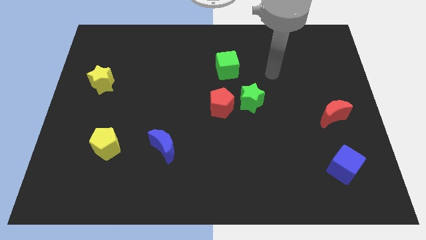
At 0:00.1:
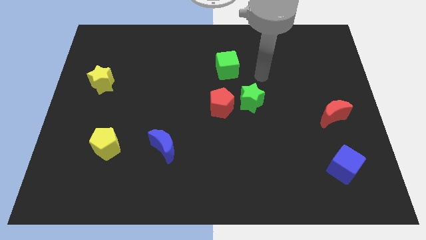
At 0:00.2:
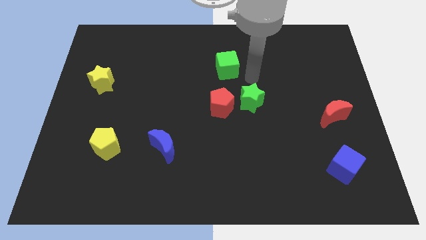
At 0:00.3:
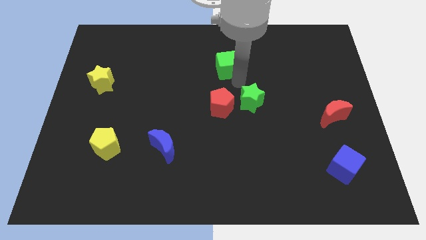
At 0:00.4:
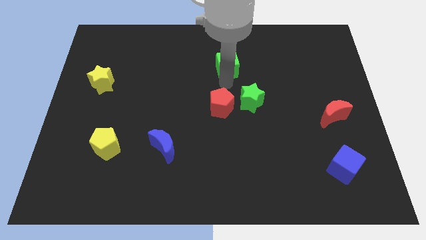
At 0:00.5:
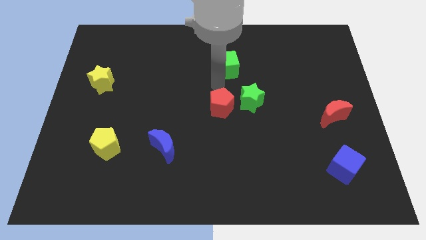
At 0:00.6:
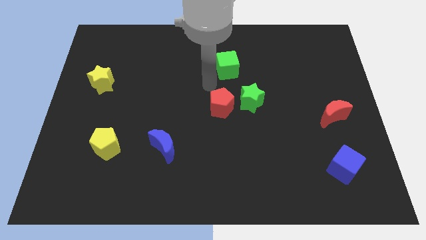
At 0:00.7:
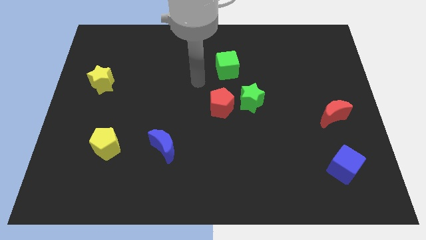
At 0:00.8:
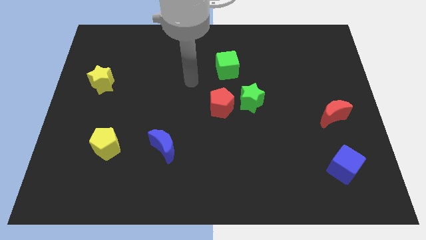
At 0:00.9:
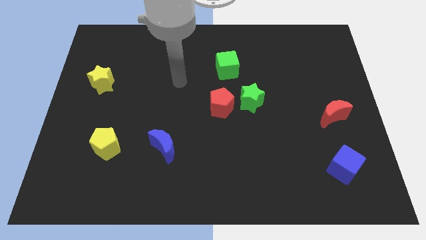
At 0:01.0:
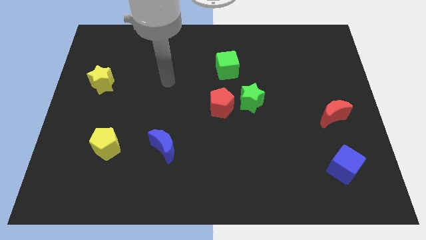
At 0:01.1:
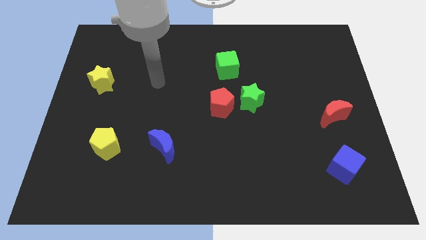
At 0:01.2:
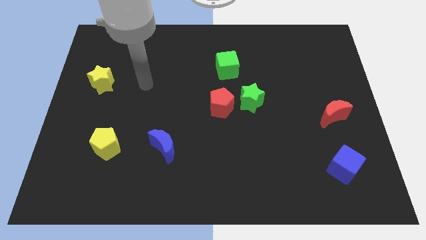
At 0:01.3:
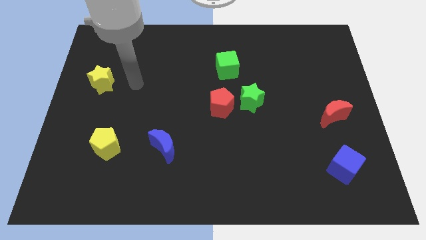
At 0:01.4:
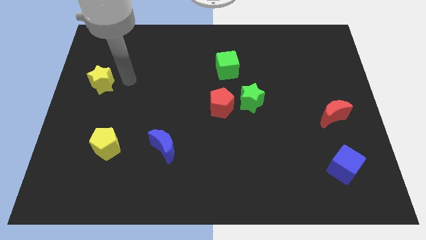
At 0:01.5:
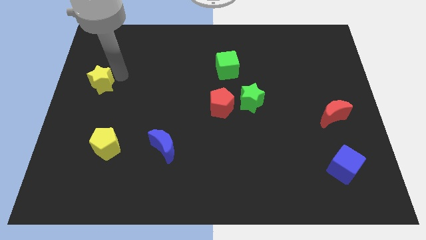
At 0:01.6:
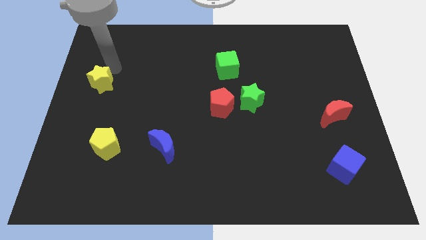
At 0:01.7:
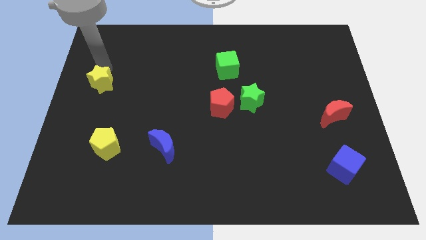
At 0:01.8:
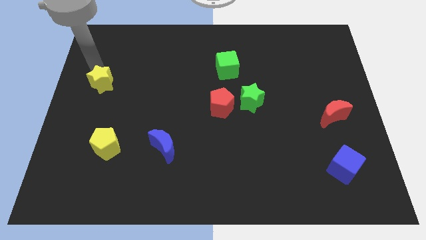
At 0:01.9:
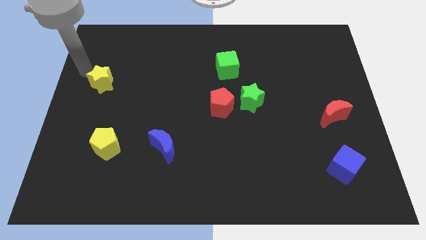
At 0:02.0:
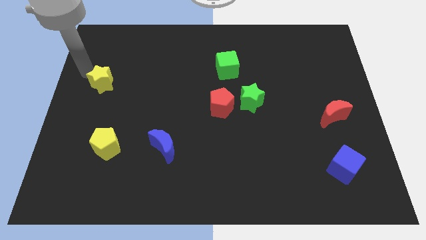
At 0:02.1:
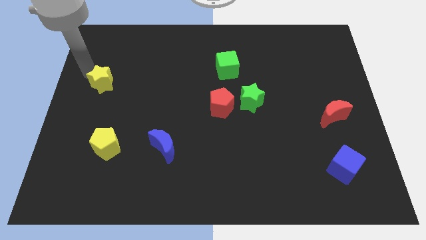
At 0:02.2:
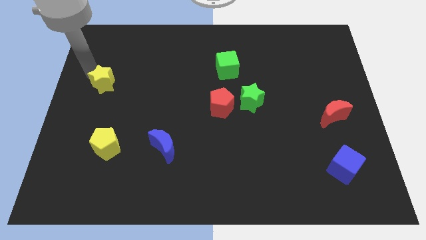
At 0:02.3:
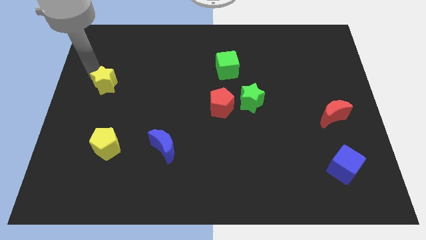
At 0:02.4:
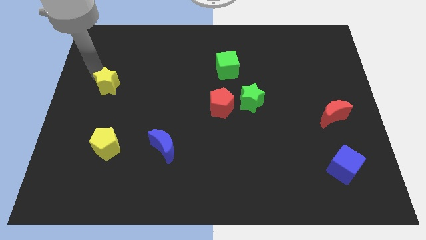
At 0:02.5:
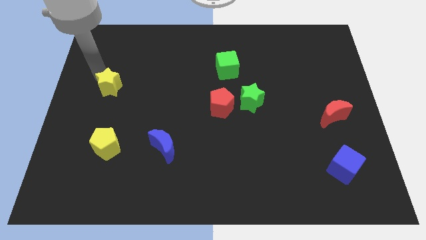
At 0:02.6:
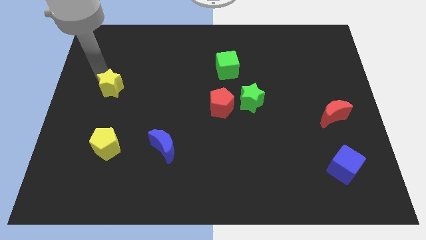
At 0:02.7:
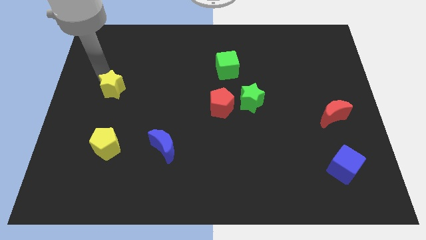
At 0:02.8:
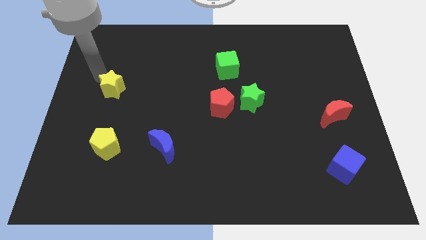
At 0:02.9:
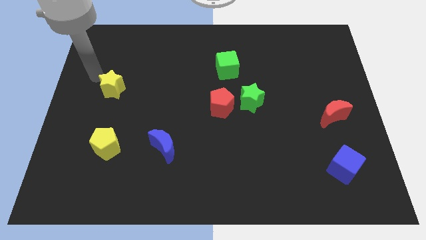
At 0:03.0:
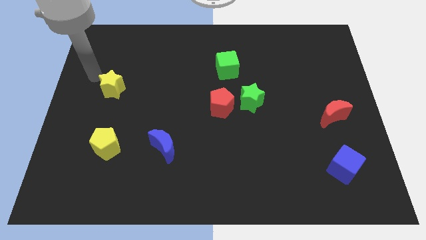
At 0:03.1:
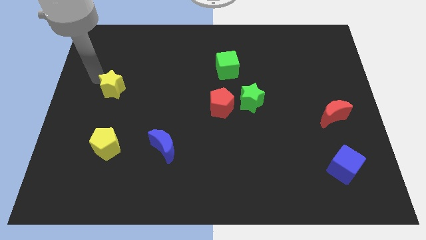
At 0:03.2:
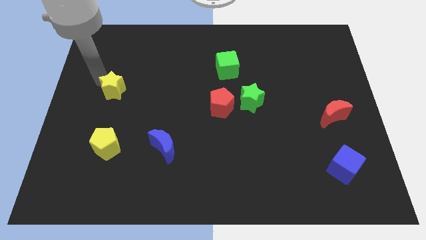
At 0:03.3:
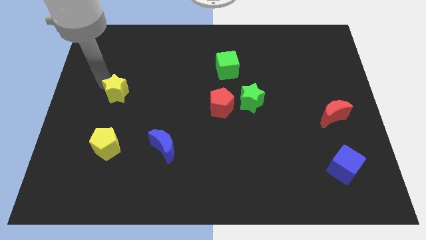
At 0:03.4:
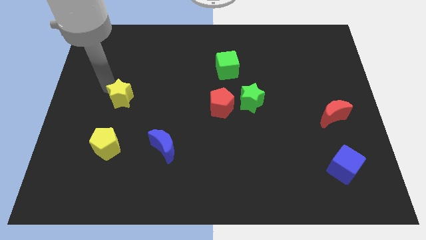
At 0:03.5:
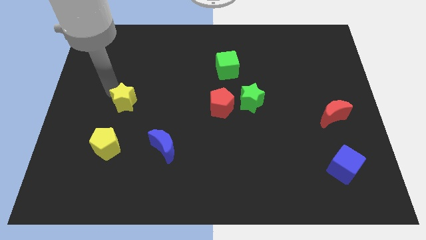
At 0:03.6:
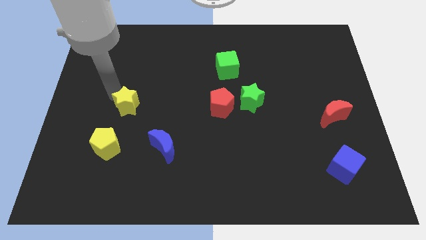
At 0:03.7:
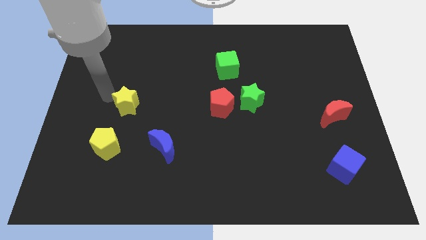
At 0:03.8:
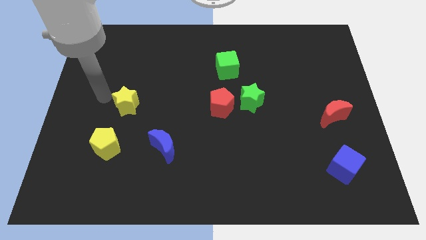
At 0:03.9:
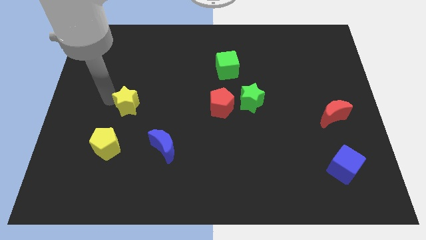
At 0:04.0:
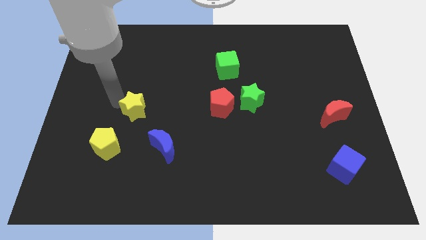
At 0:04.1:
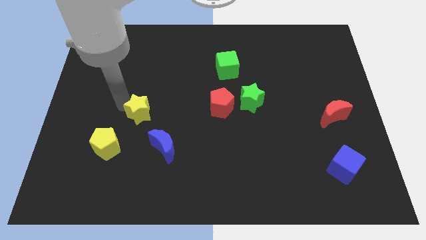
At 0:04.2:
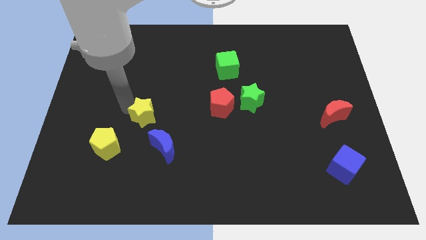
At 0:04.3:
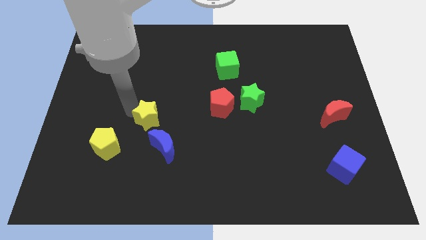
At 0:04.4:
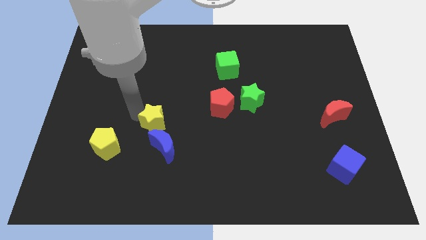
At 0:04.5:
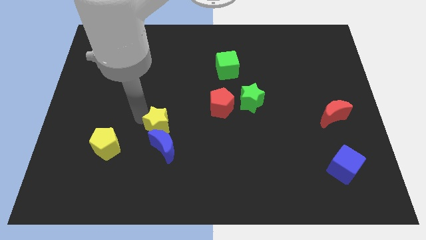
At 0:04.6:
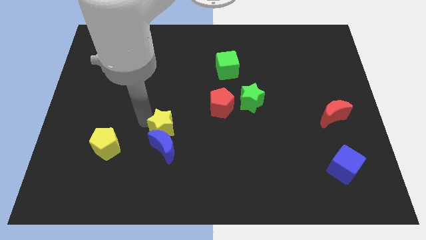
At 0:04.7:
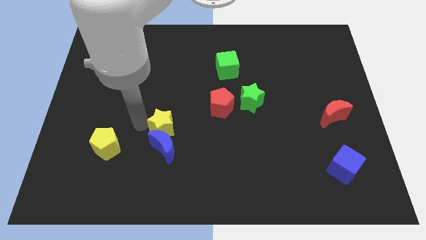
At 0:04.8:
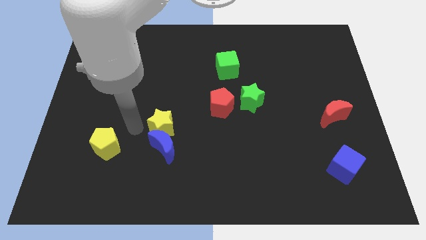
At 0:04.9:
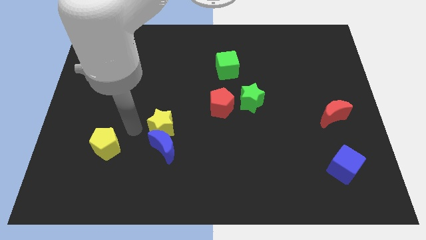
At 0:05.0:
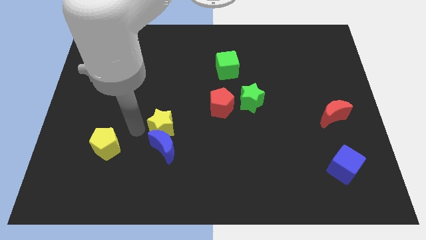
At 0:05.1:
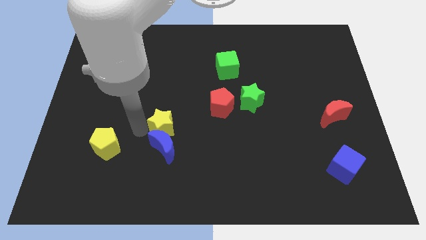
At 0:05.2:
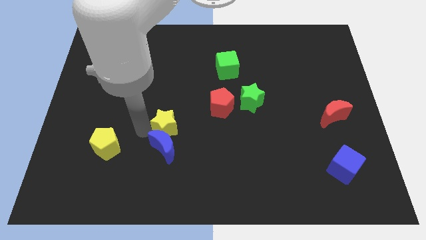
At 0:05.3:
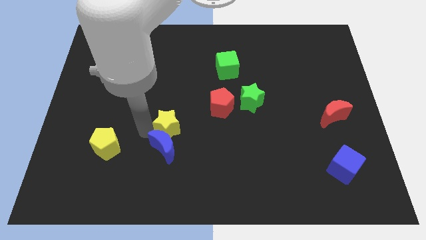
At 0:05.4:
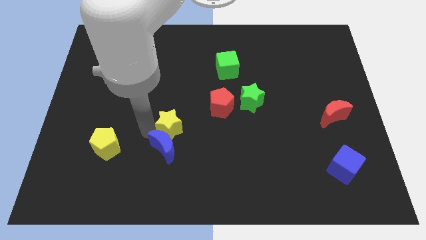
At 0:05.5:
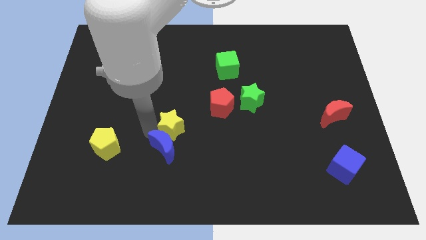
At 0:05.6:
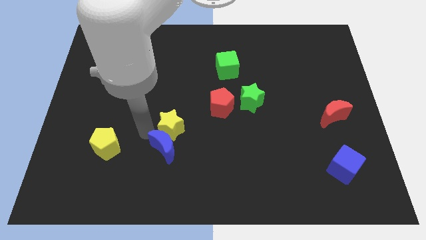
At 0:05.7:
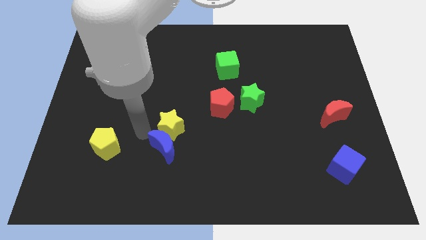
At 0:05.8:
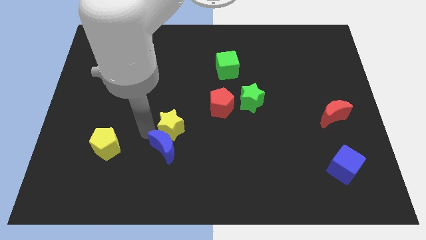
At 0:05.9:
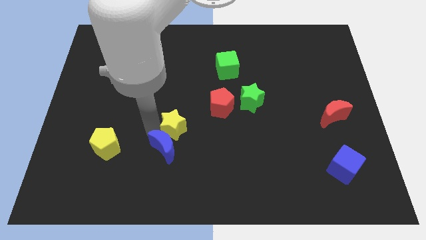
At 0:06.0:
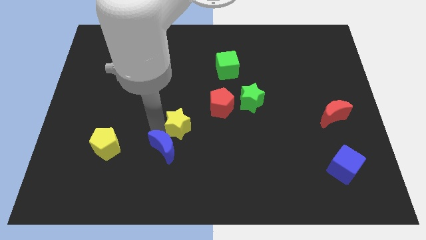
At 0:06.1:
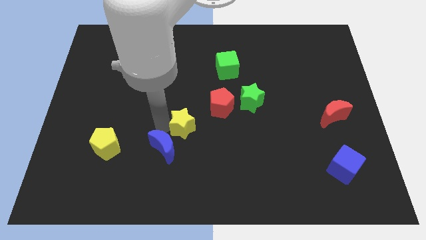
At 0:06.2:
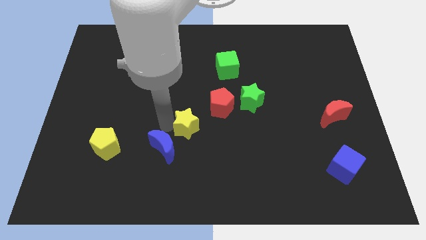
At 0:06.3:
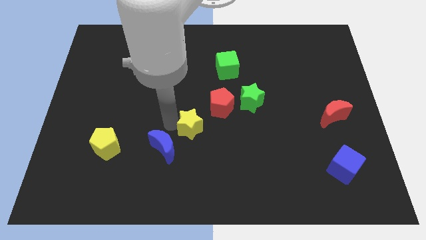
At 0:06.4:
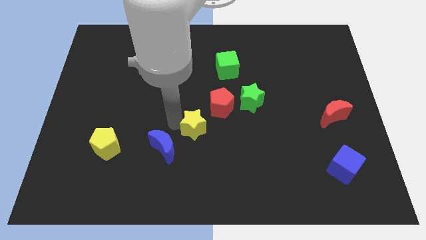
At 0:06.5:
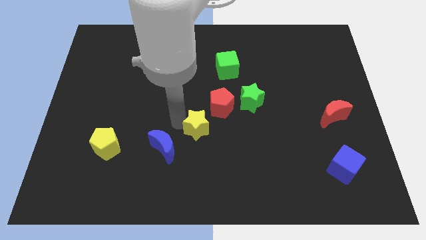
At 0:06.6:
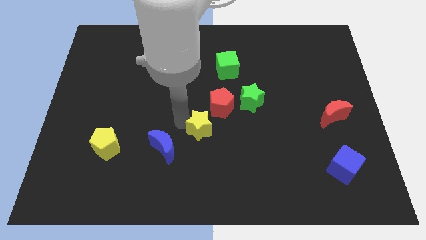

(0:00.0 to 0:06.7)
put the yellow star below the red pentagon

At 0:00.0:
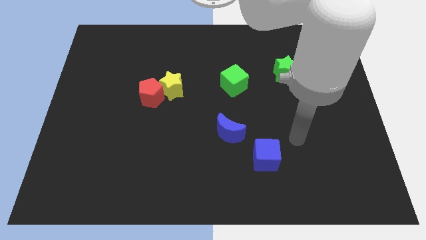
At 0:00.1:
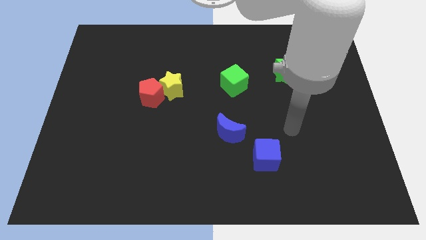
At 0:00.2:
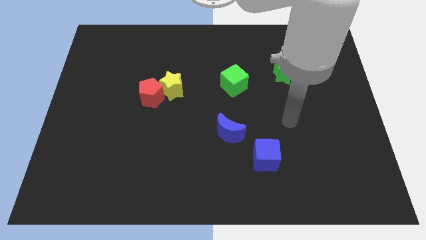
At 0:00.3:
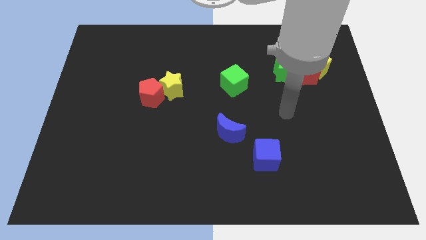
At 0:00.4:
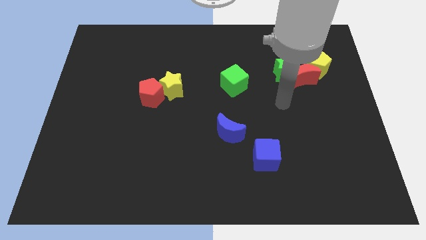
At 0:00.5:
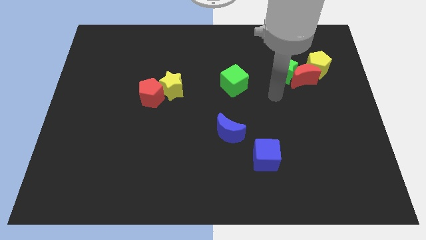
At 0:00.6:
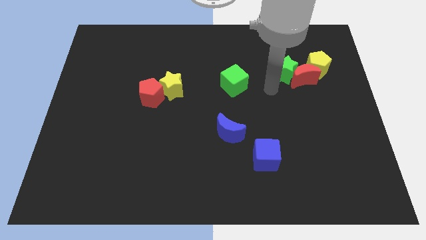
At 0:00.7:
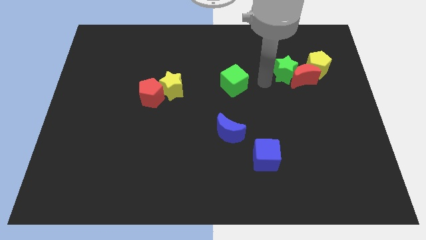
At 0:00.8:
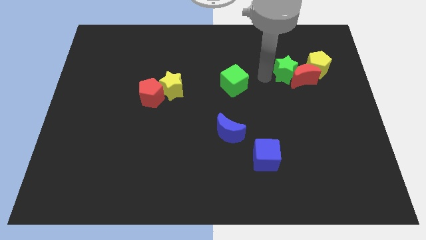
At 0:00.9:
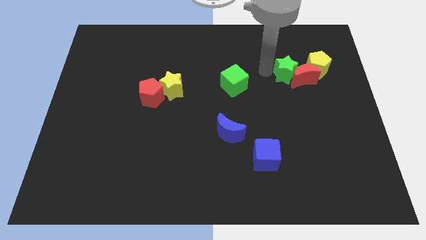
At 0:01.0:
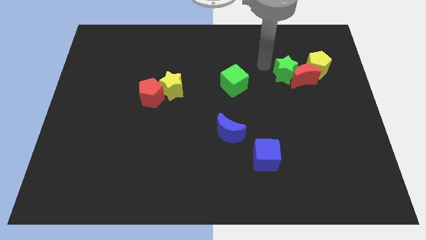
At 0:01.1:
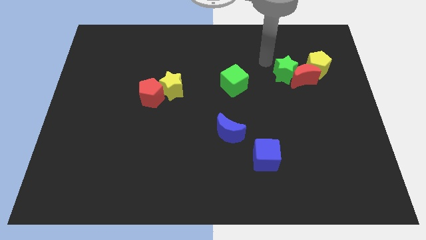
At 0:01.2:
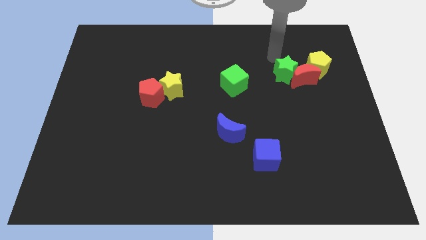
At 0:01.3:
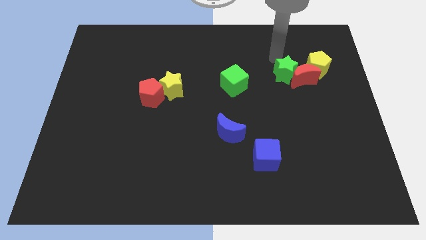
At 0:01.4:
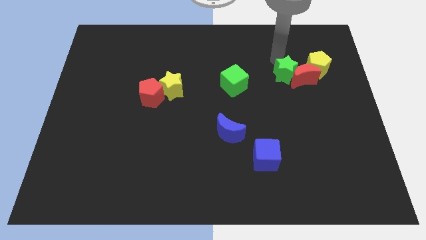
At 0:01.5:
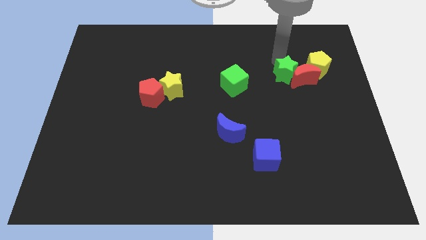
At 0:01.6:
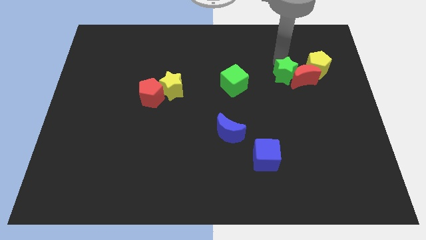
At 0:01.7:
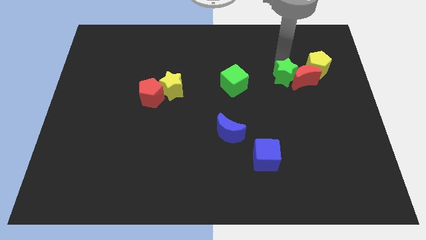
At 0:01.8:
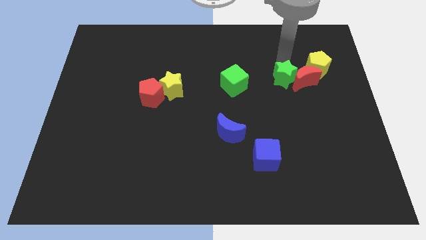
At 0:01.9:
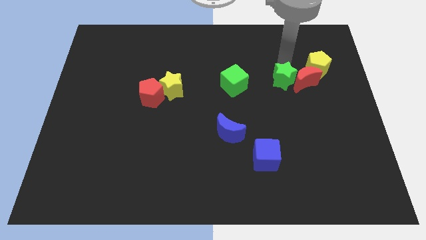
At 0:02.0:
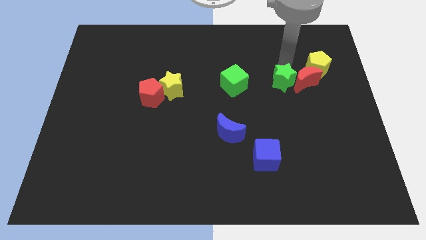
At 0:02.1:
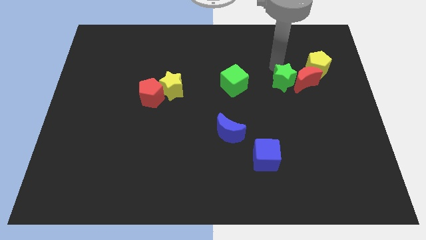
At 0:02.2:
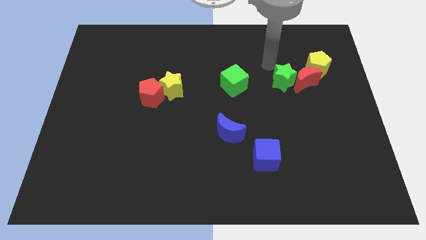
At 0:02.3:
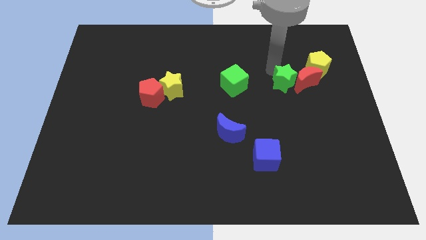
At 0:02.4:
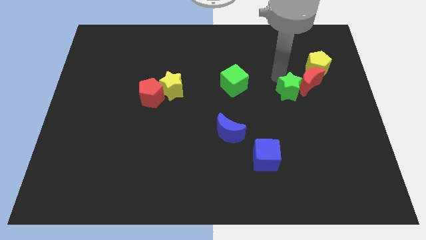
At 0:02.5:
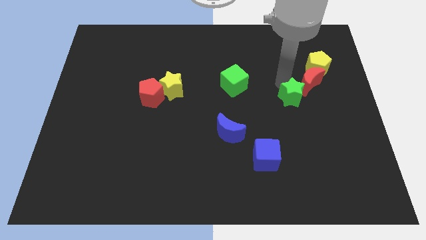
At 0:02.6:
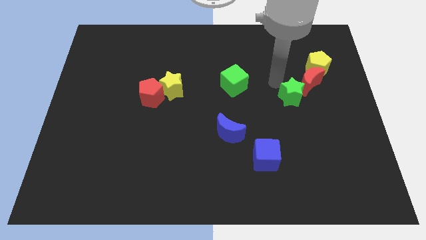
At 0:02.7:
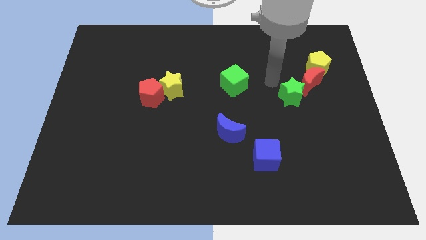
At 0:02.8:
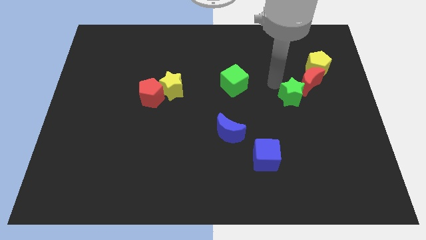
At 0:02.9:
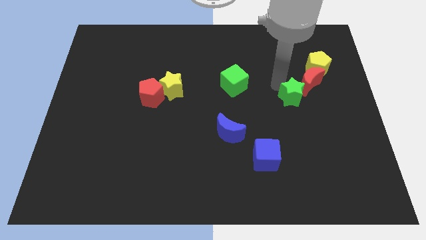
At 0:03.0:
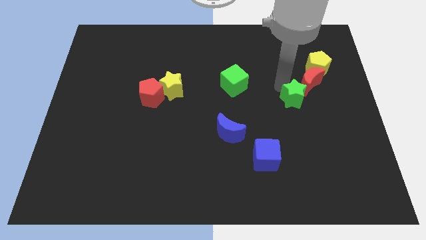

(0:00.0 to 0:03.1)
slide the green star to the bottom side of the red moon
